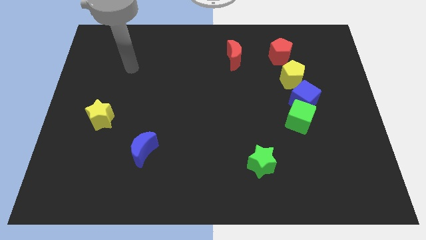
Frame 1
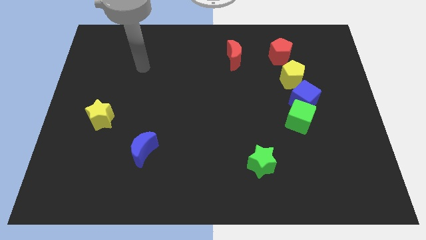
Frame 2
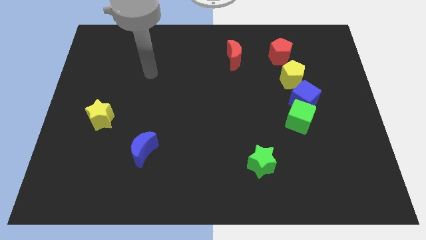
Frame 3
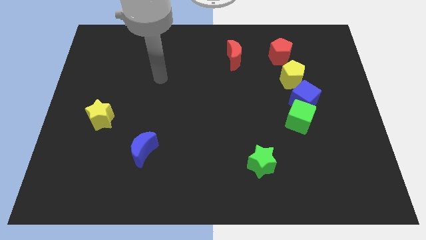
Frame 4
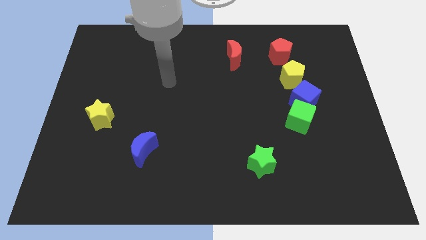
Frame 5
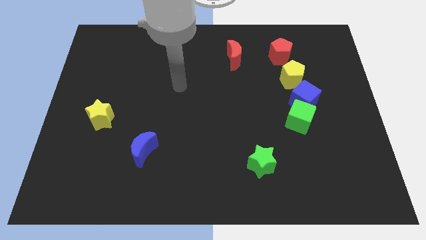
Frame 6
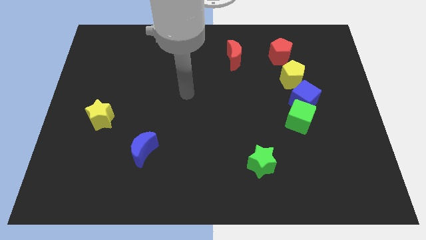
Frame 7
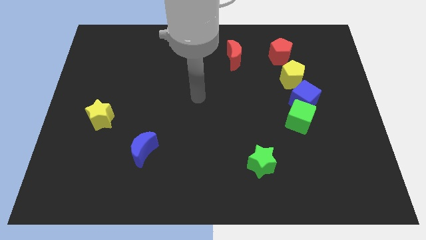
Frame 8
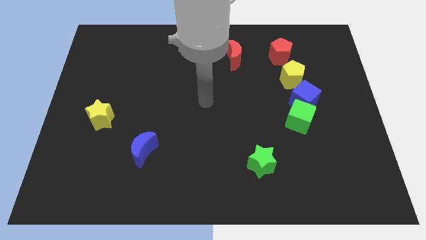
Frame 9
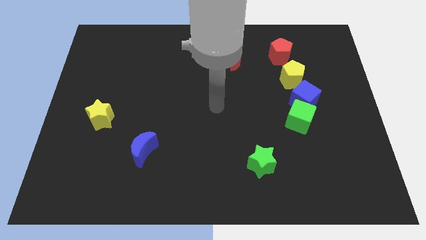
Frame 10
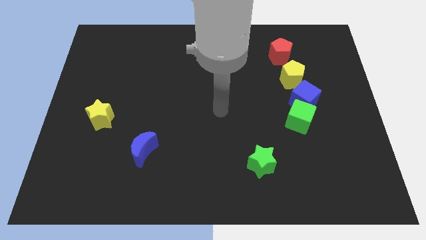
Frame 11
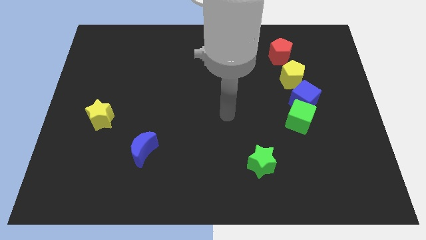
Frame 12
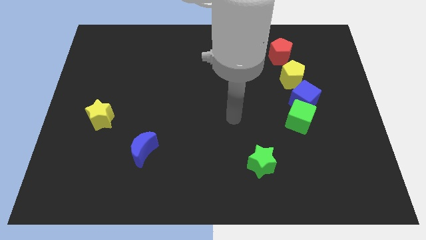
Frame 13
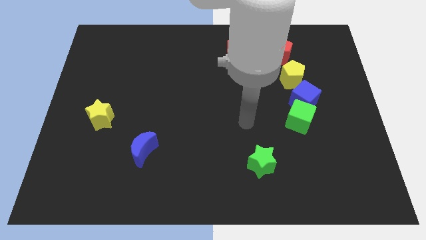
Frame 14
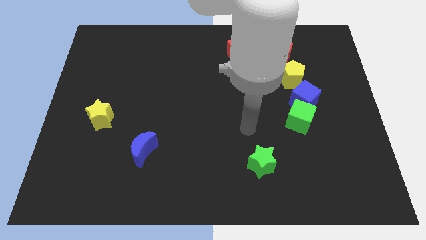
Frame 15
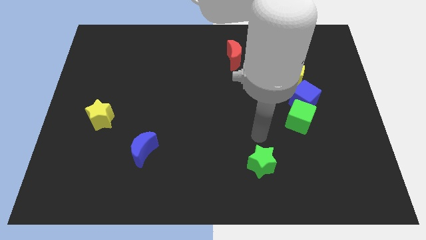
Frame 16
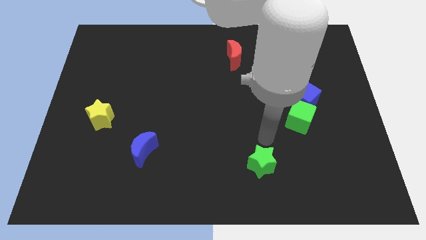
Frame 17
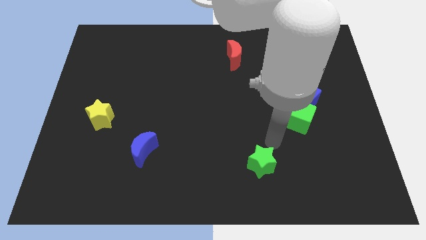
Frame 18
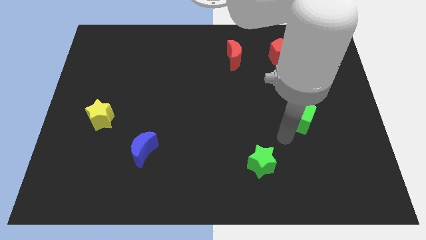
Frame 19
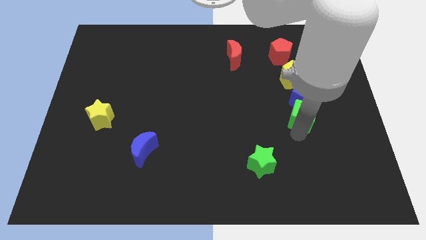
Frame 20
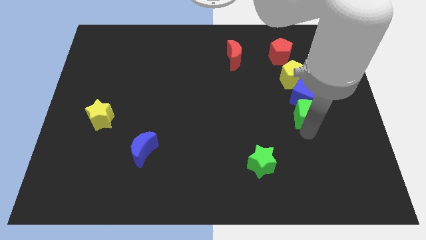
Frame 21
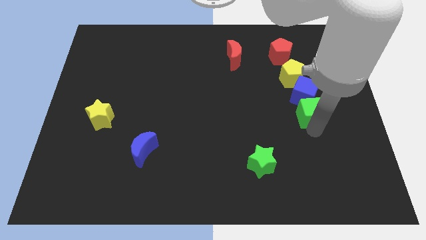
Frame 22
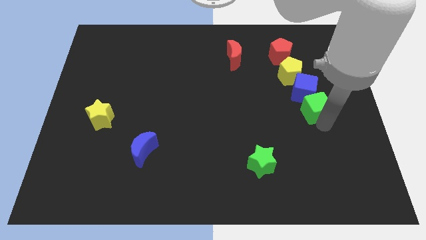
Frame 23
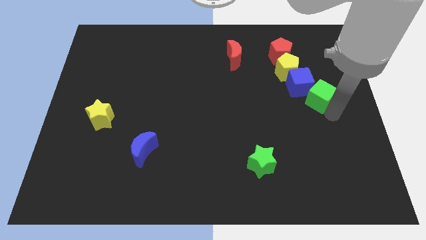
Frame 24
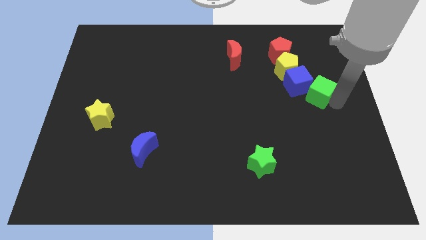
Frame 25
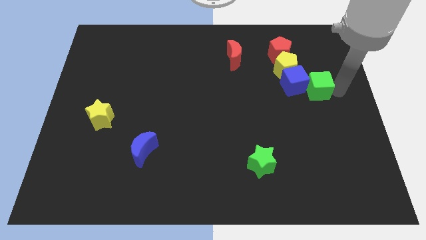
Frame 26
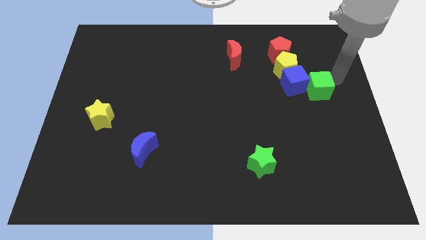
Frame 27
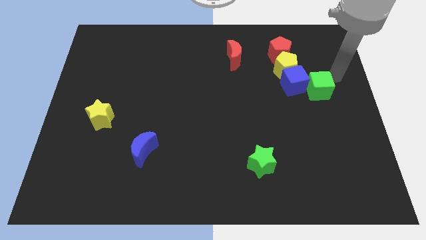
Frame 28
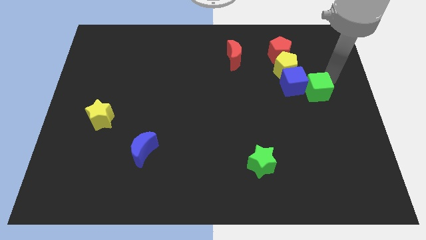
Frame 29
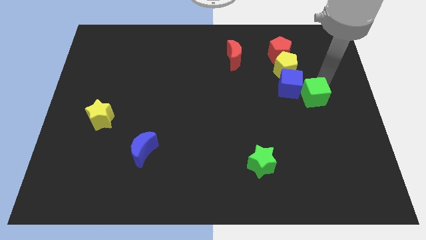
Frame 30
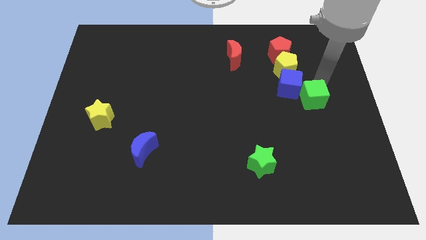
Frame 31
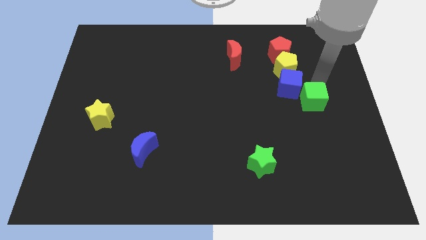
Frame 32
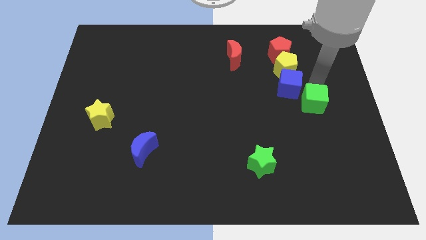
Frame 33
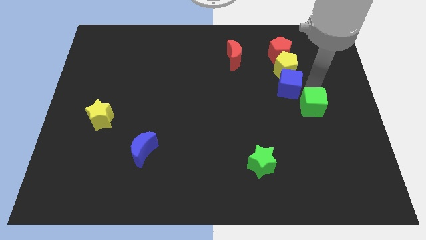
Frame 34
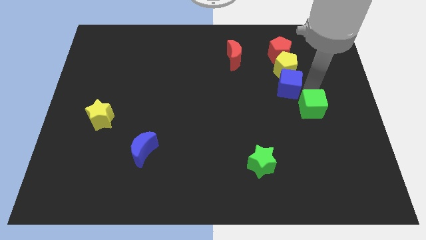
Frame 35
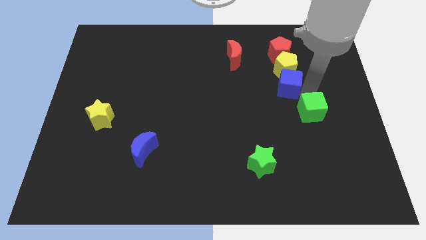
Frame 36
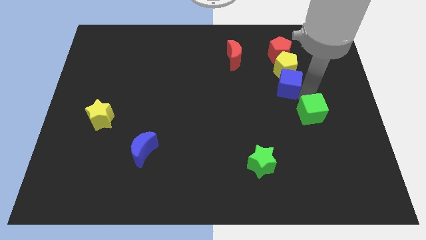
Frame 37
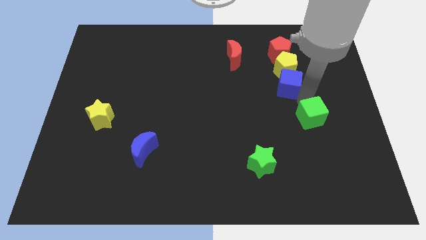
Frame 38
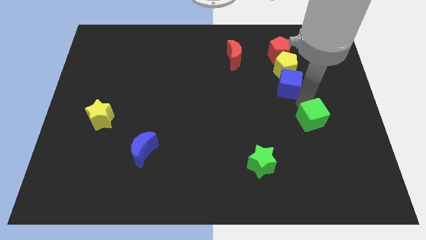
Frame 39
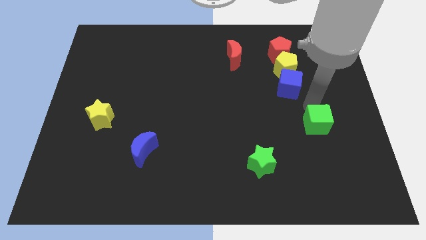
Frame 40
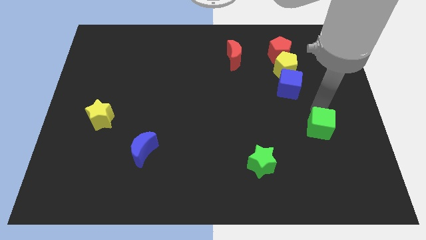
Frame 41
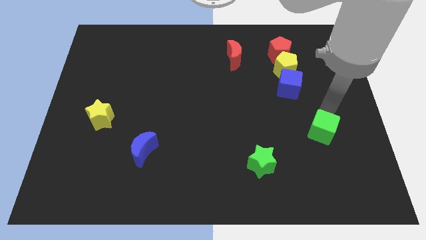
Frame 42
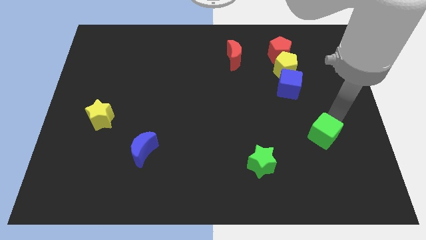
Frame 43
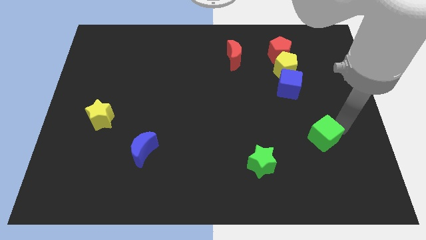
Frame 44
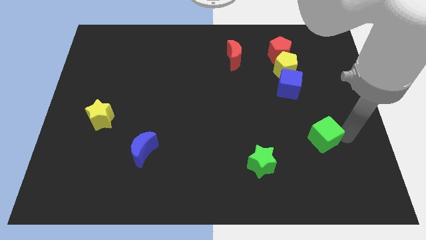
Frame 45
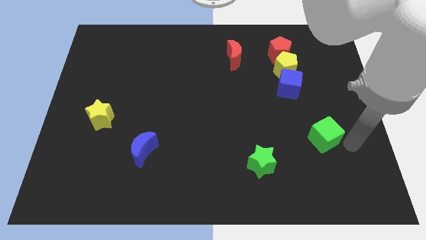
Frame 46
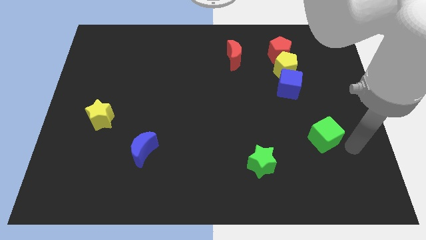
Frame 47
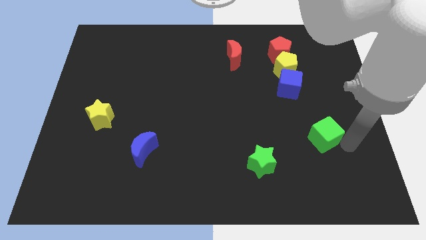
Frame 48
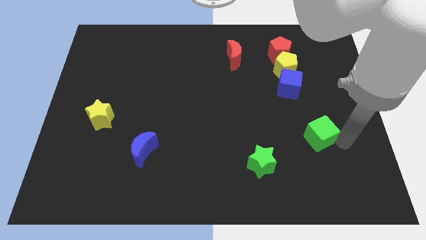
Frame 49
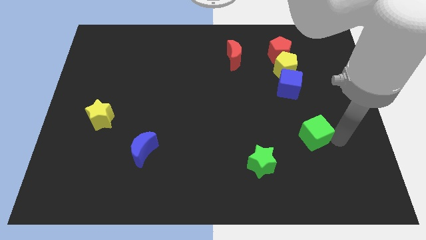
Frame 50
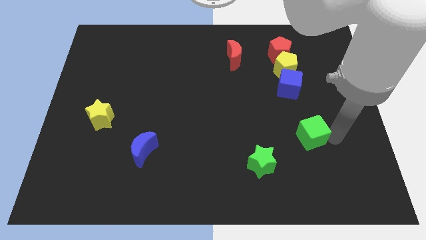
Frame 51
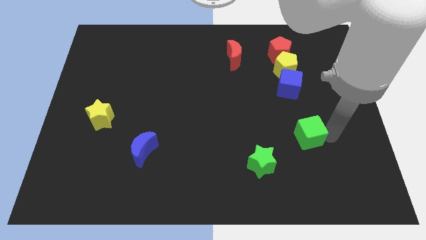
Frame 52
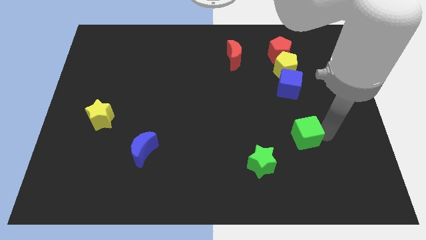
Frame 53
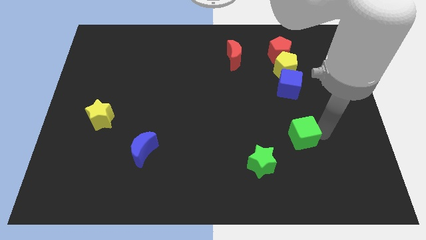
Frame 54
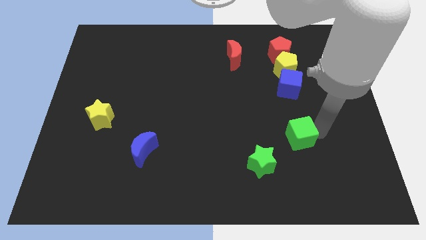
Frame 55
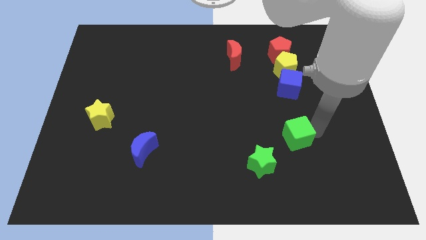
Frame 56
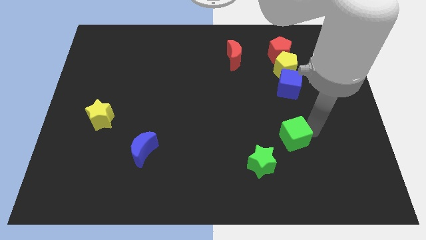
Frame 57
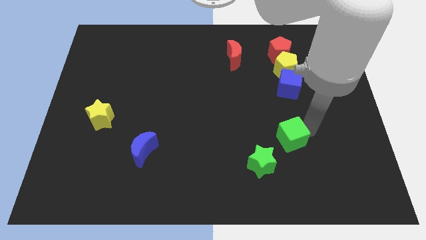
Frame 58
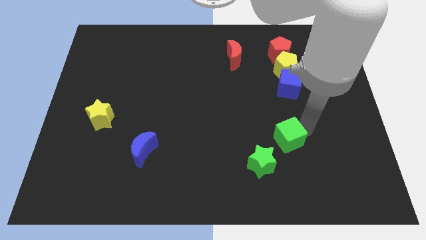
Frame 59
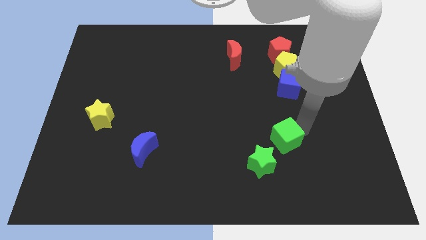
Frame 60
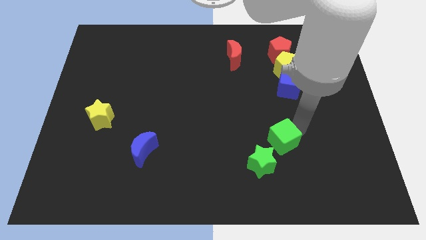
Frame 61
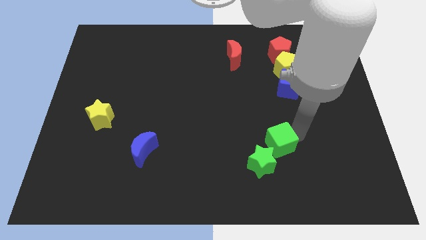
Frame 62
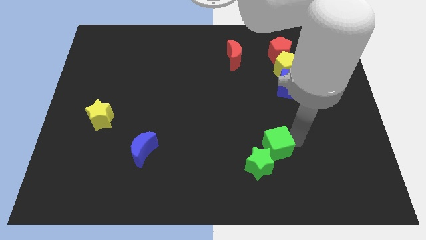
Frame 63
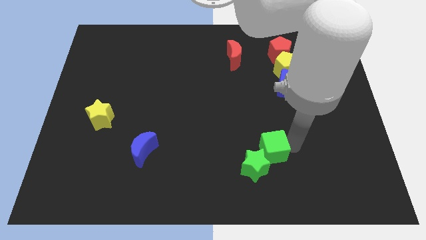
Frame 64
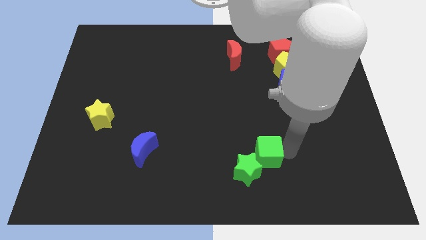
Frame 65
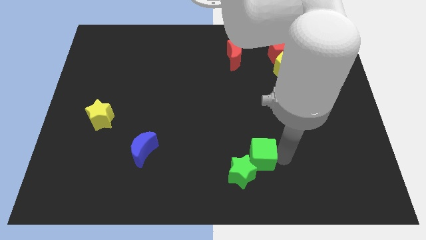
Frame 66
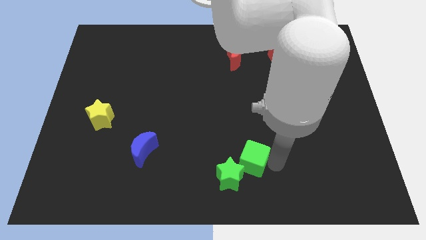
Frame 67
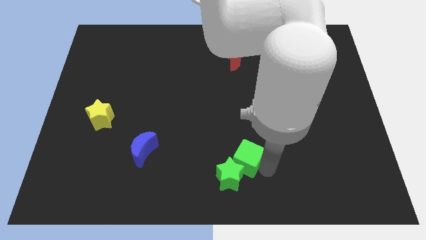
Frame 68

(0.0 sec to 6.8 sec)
slightly move the green cube left

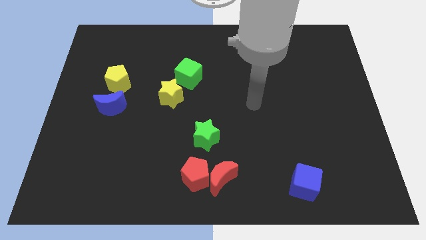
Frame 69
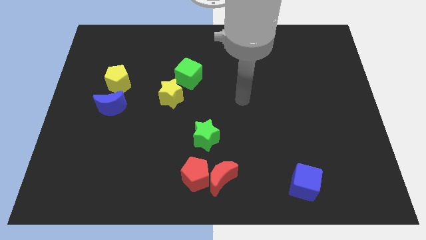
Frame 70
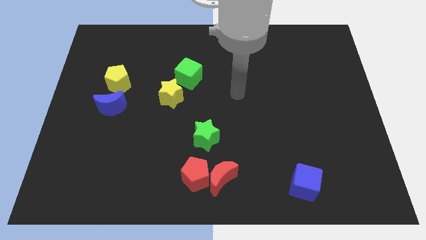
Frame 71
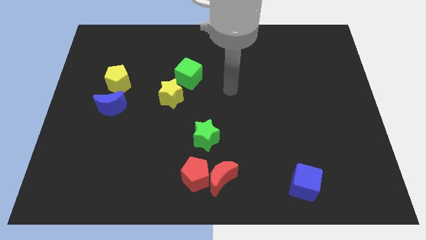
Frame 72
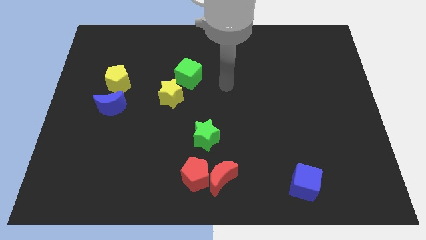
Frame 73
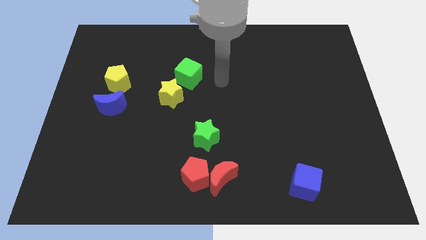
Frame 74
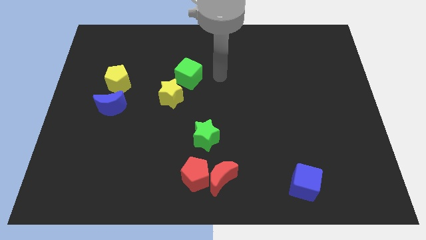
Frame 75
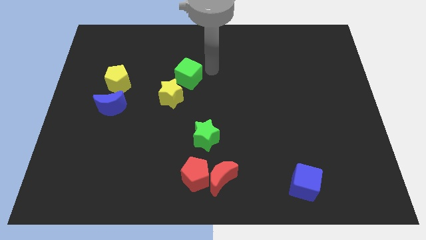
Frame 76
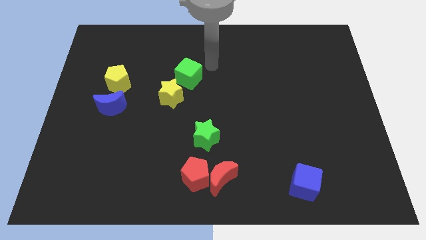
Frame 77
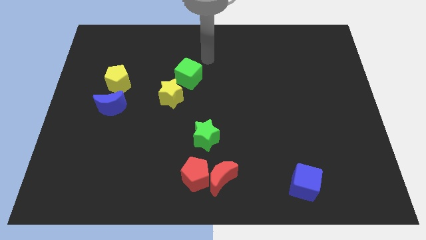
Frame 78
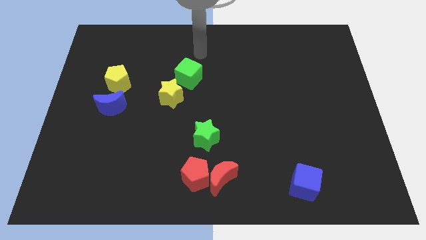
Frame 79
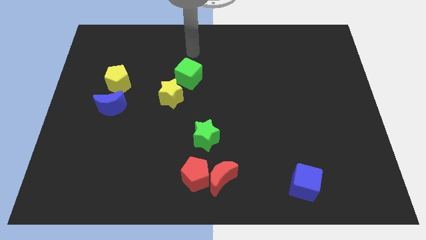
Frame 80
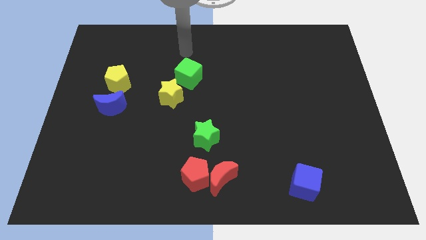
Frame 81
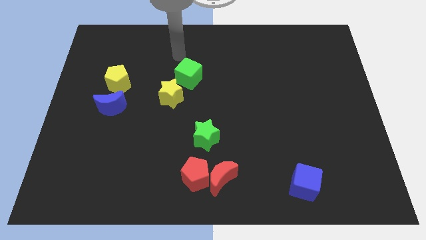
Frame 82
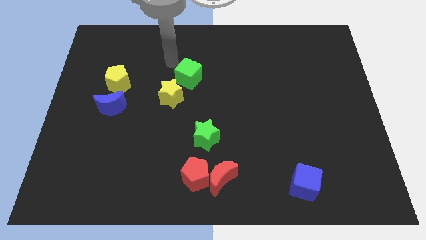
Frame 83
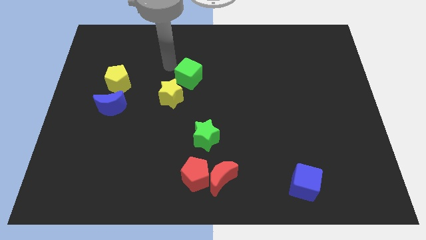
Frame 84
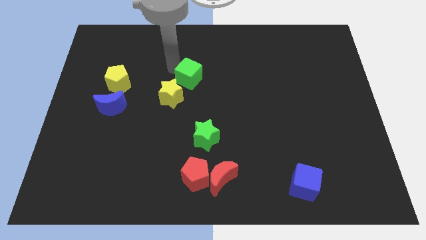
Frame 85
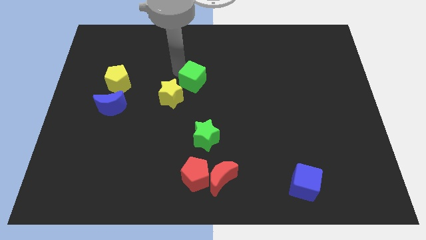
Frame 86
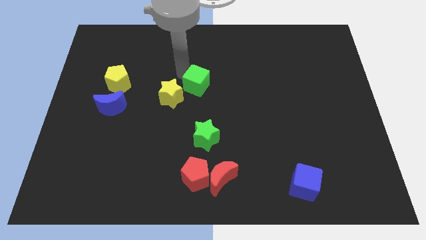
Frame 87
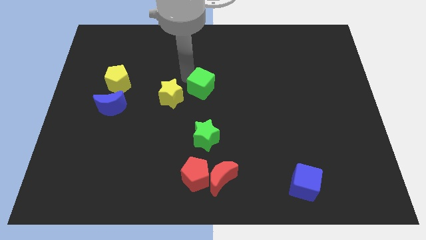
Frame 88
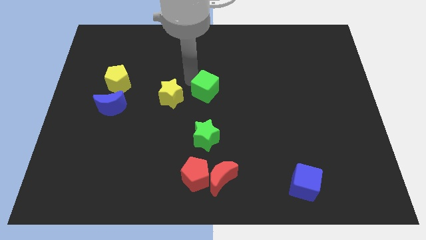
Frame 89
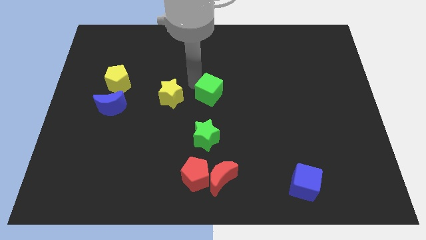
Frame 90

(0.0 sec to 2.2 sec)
slide the green cube downwards and right diagonally somewhat
